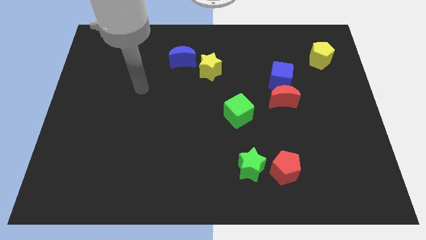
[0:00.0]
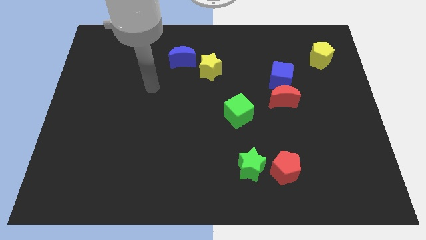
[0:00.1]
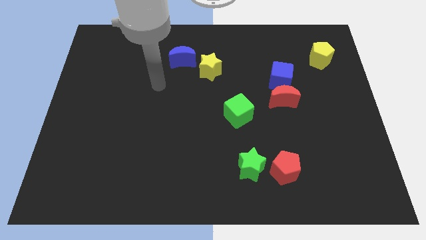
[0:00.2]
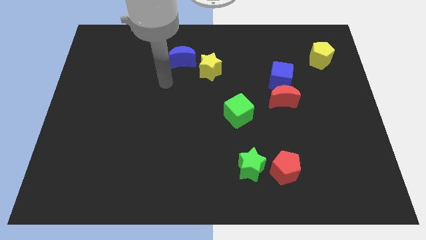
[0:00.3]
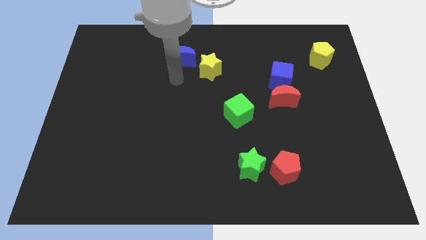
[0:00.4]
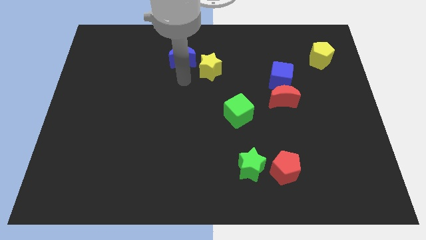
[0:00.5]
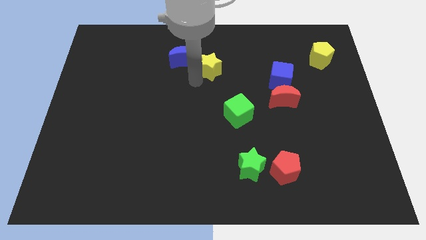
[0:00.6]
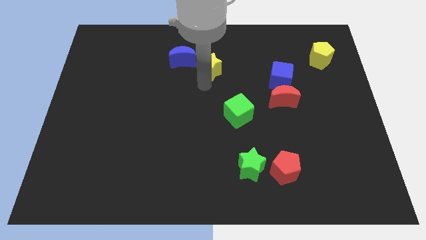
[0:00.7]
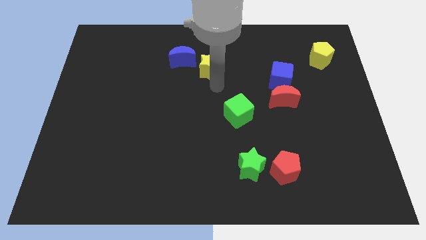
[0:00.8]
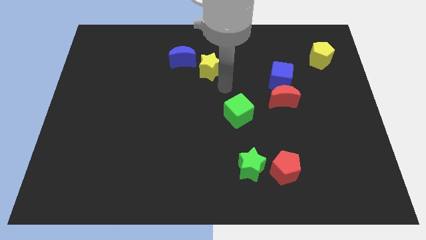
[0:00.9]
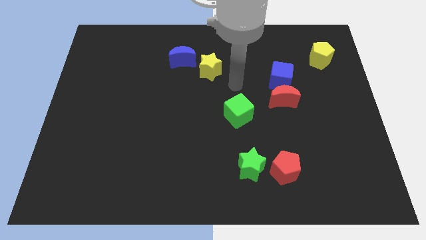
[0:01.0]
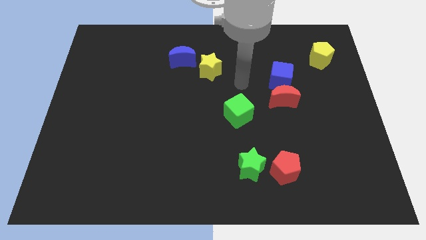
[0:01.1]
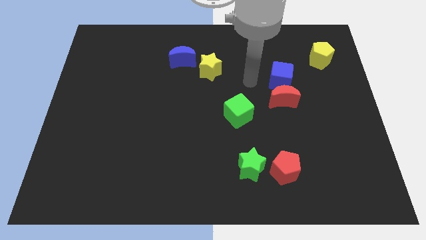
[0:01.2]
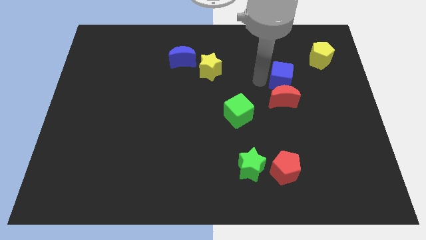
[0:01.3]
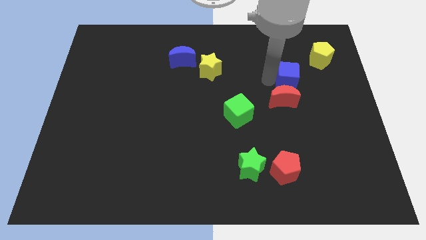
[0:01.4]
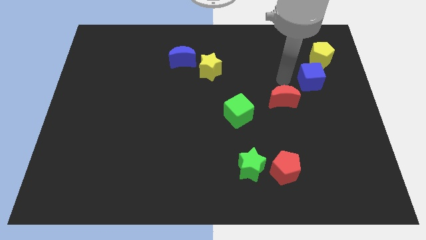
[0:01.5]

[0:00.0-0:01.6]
move the red moon away from the blue cube

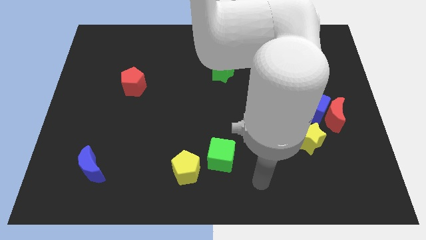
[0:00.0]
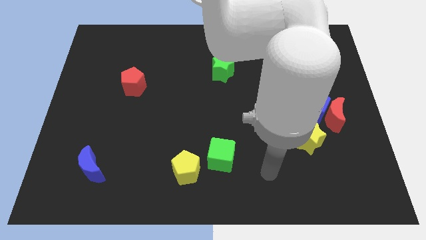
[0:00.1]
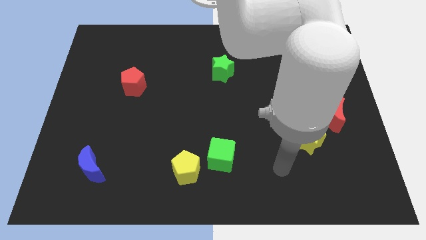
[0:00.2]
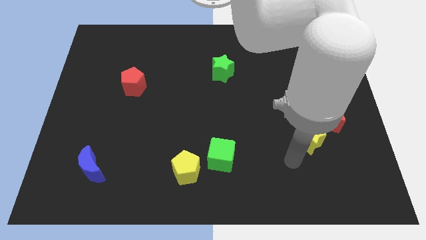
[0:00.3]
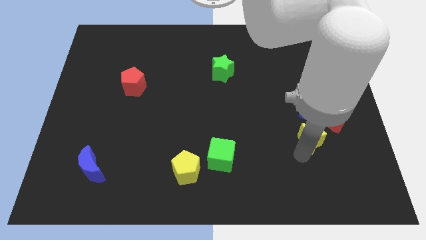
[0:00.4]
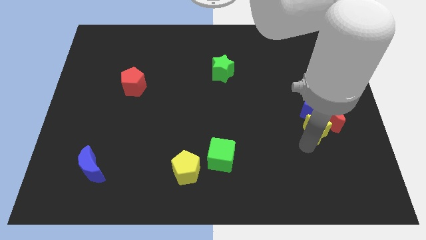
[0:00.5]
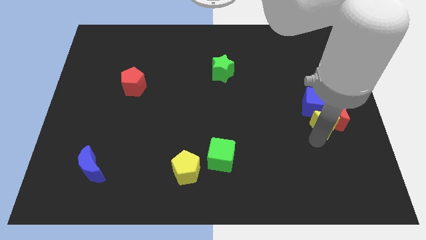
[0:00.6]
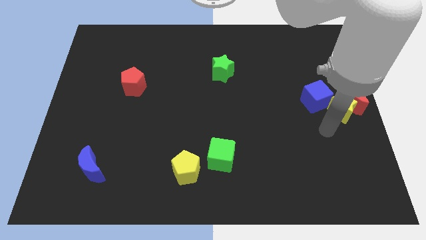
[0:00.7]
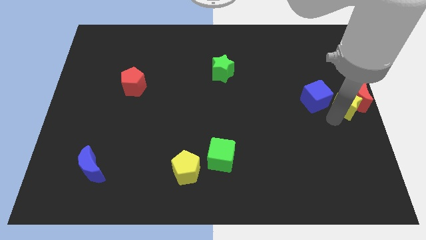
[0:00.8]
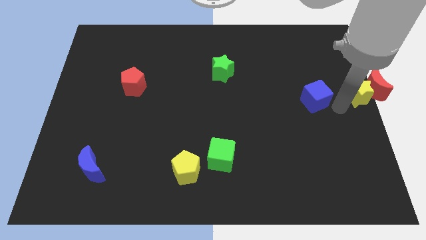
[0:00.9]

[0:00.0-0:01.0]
separate the blue cube from the red moon and yellow star

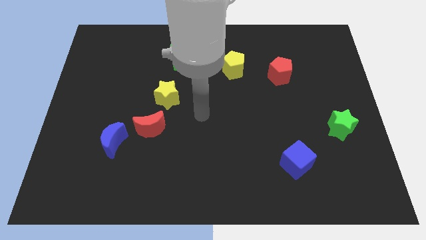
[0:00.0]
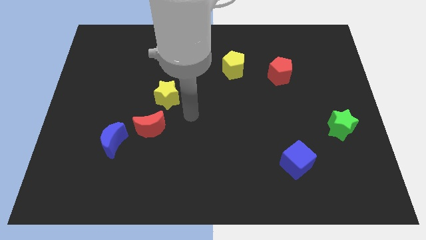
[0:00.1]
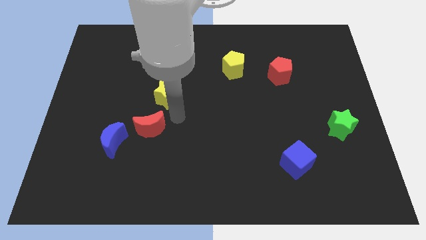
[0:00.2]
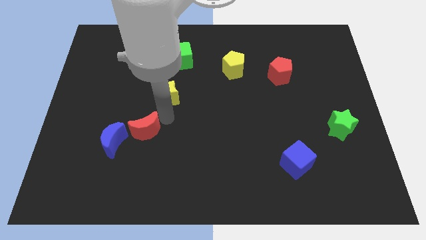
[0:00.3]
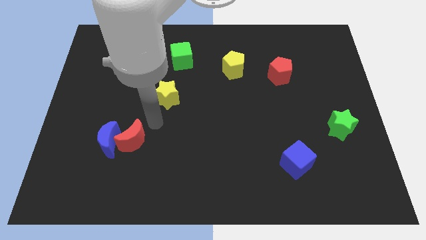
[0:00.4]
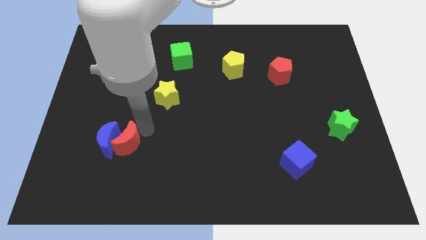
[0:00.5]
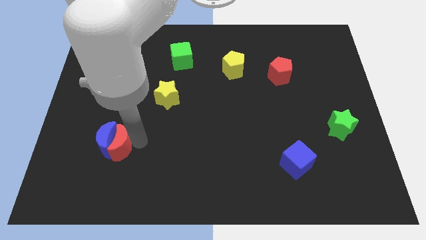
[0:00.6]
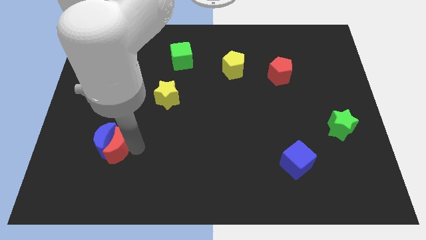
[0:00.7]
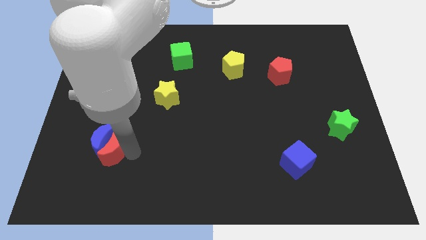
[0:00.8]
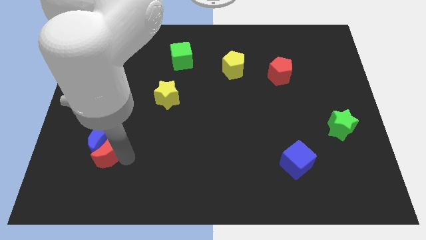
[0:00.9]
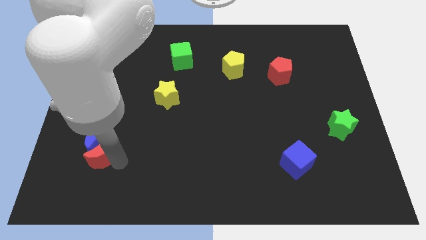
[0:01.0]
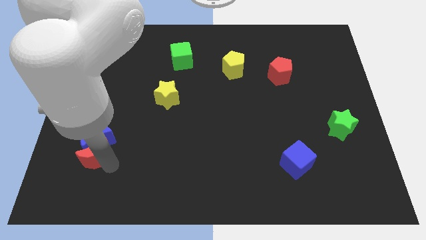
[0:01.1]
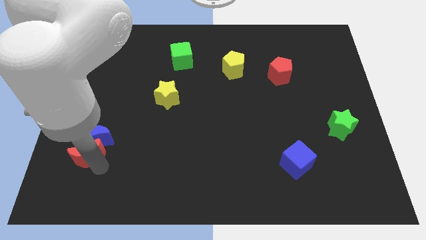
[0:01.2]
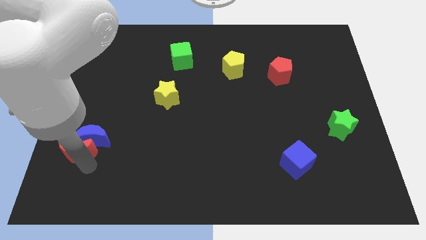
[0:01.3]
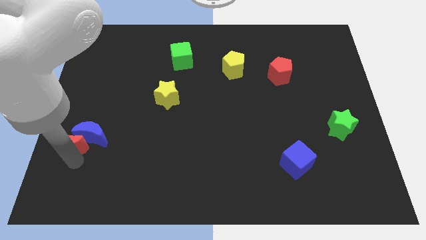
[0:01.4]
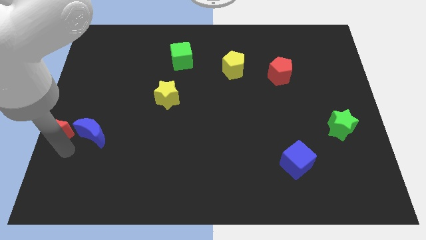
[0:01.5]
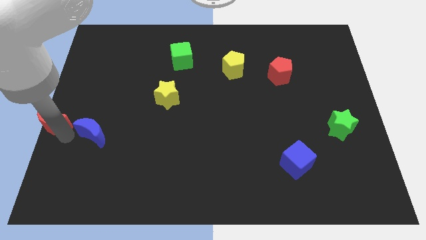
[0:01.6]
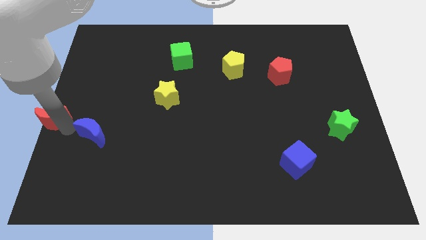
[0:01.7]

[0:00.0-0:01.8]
pull the blue moon apart from the red moon

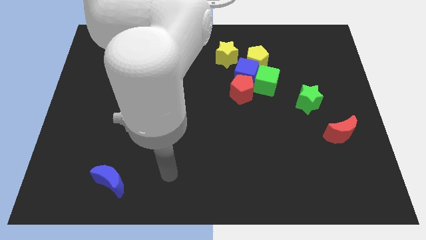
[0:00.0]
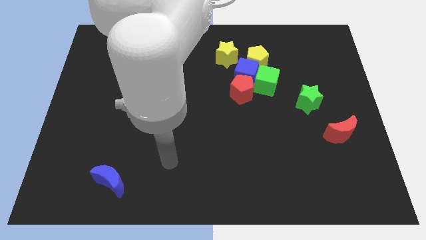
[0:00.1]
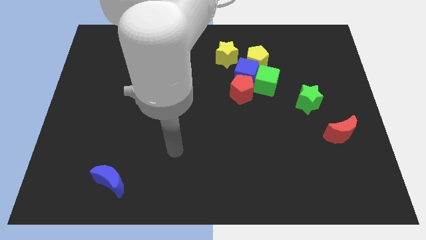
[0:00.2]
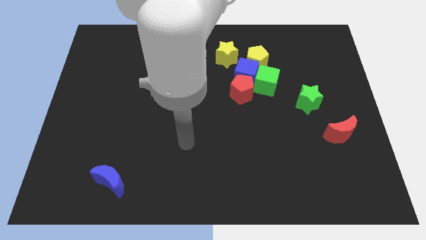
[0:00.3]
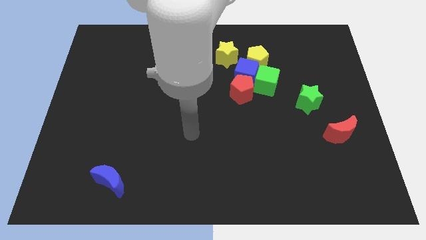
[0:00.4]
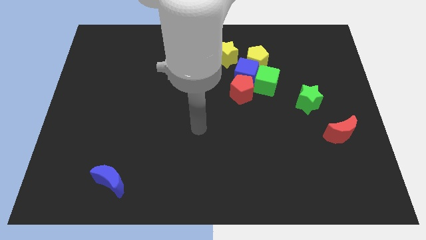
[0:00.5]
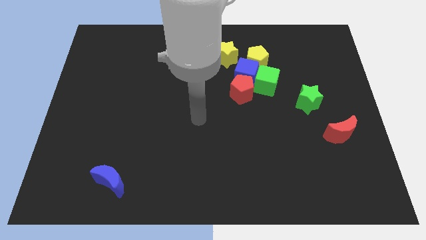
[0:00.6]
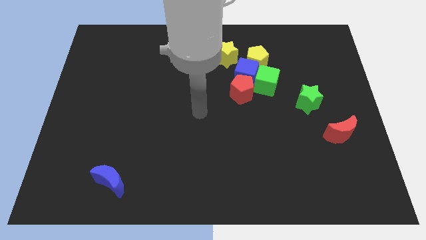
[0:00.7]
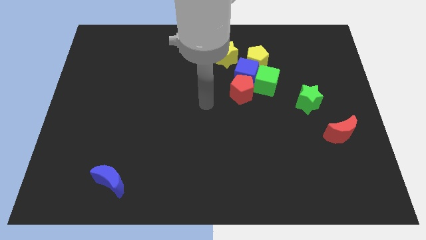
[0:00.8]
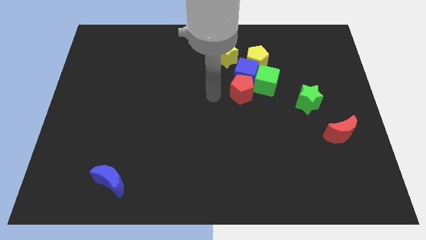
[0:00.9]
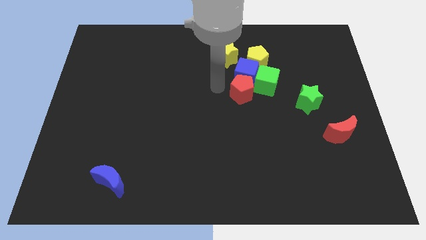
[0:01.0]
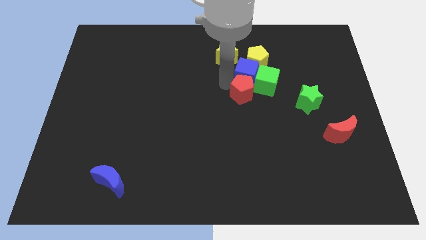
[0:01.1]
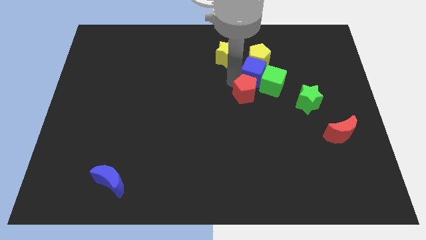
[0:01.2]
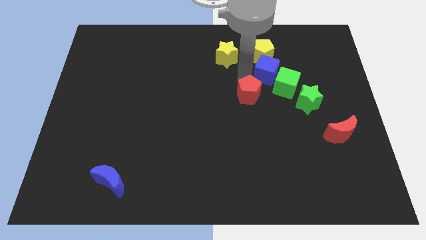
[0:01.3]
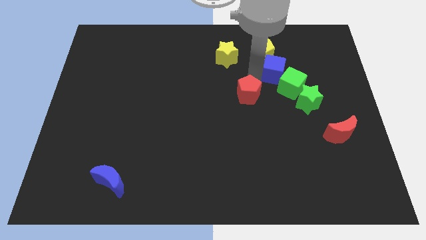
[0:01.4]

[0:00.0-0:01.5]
pull the red pentagon apart from the blue cube and green cube

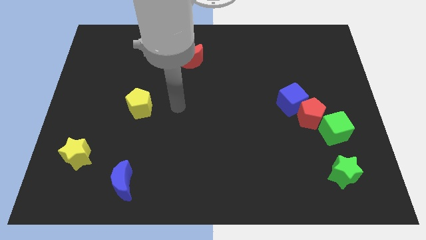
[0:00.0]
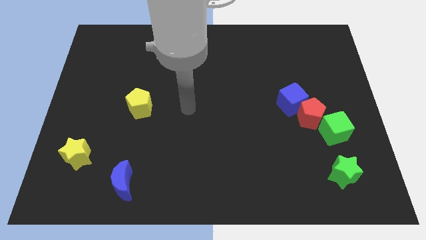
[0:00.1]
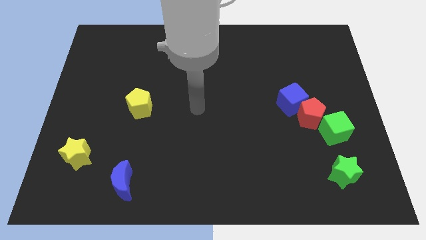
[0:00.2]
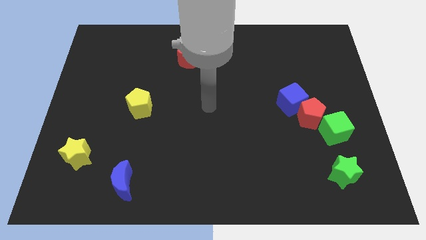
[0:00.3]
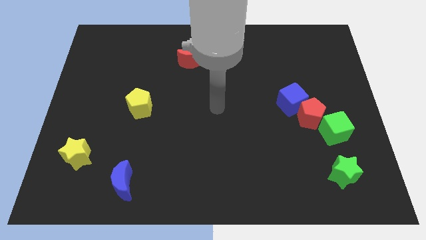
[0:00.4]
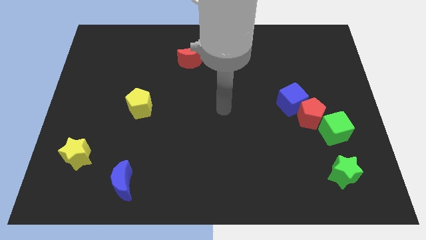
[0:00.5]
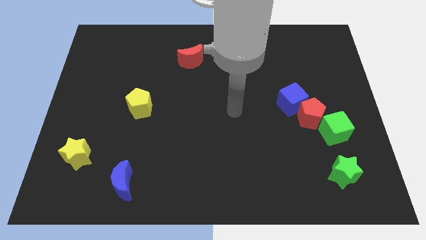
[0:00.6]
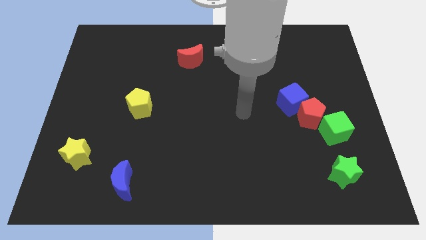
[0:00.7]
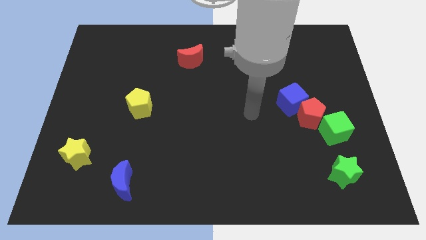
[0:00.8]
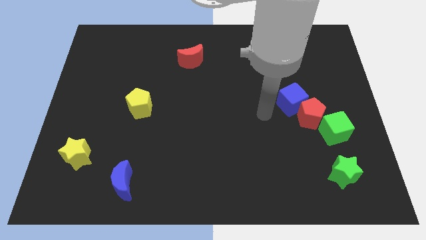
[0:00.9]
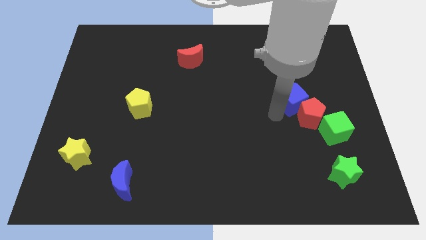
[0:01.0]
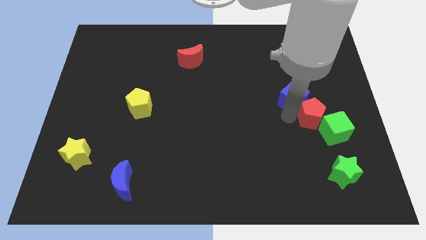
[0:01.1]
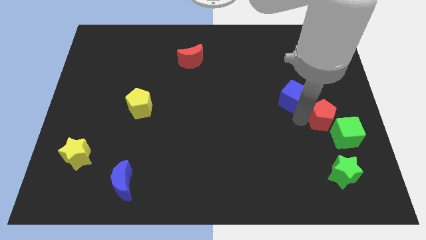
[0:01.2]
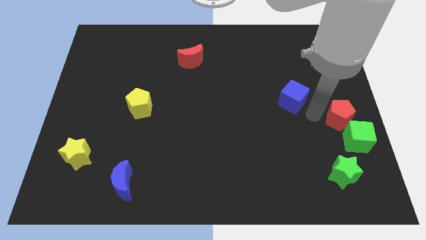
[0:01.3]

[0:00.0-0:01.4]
move the blue cube away from the red pentagon

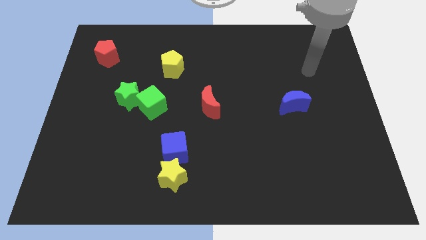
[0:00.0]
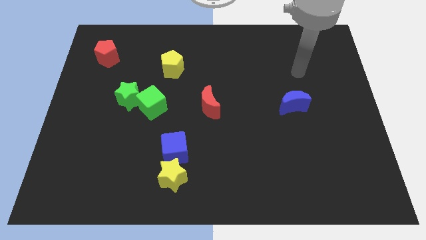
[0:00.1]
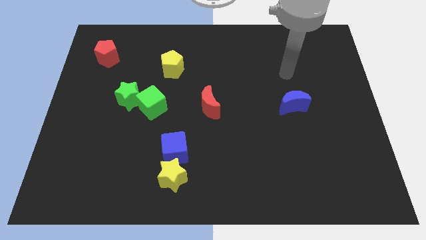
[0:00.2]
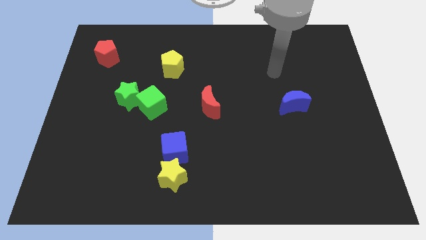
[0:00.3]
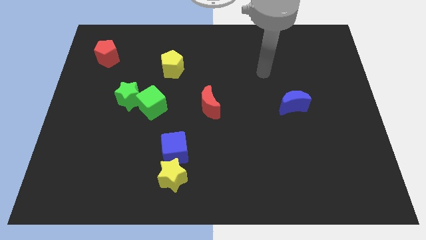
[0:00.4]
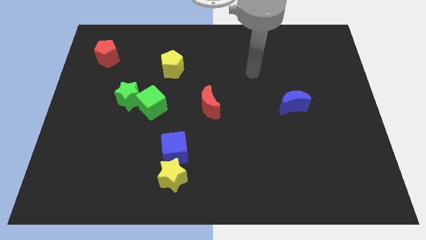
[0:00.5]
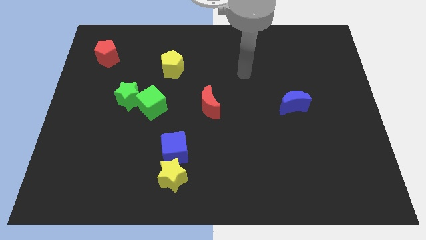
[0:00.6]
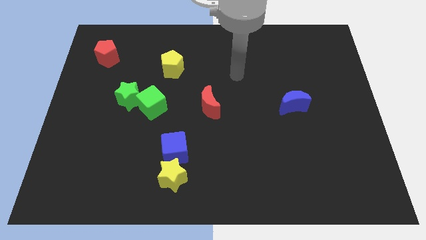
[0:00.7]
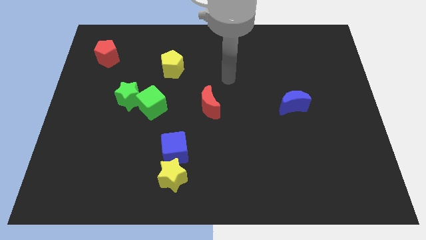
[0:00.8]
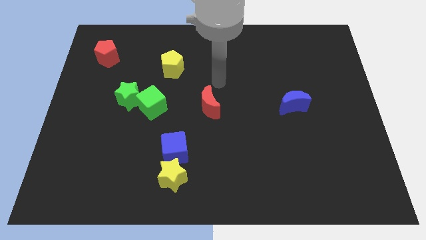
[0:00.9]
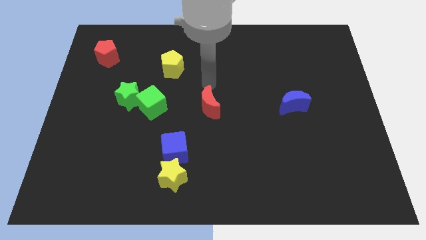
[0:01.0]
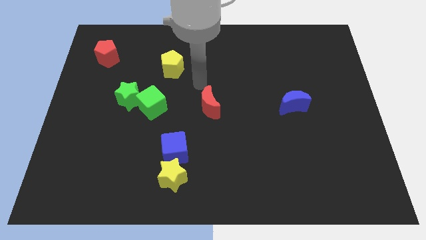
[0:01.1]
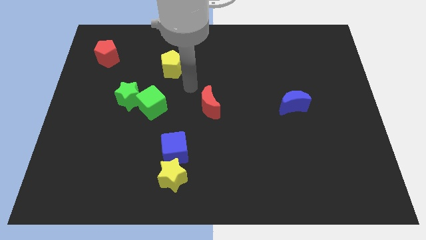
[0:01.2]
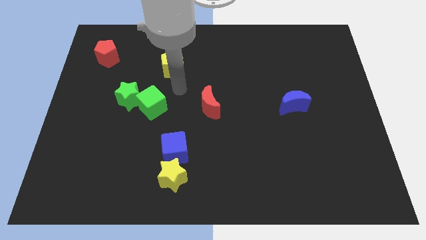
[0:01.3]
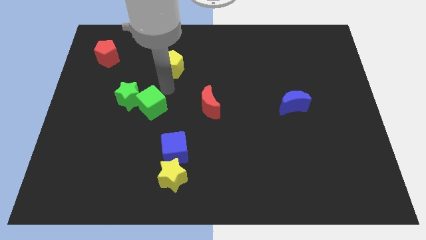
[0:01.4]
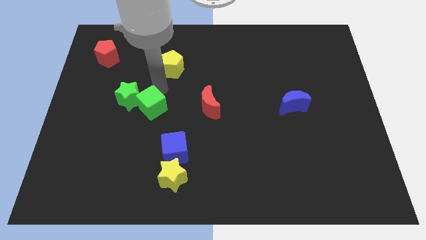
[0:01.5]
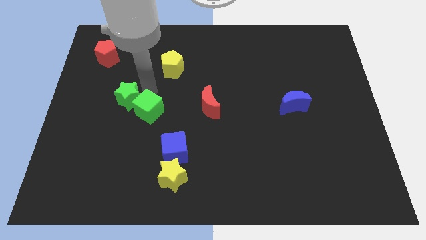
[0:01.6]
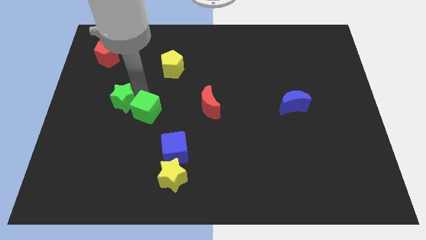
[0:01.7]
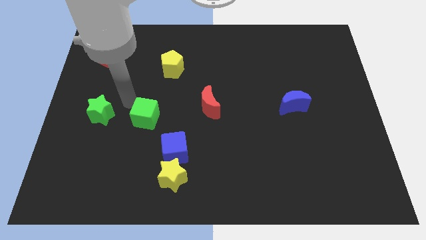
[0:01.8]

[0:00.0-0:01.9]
pull the green cube apart from the green star

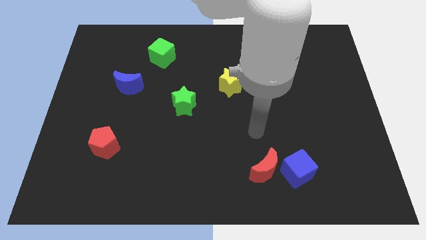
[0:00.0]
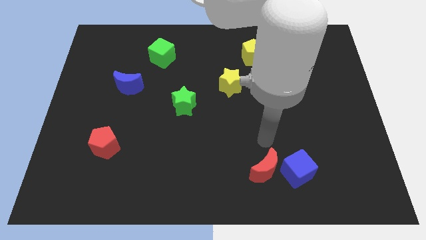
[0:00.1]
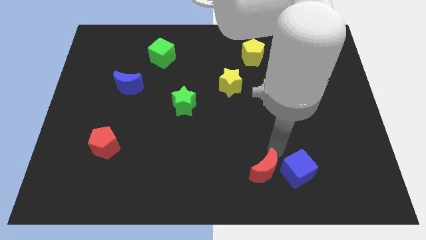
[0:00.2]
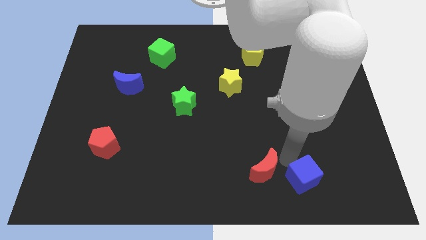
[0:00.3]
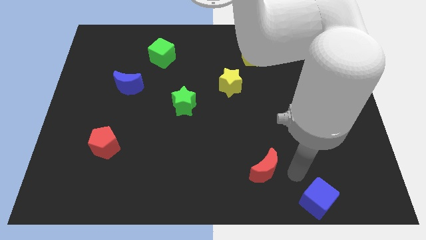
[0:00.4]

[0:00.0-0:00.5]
pull the red moon apart from the blue cube
